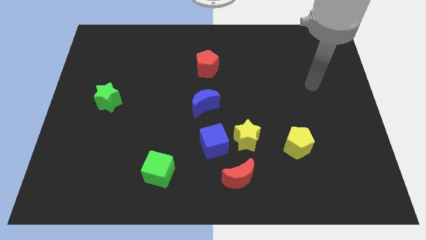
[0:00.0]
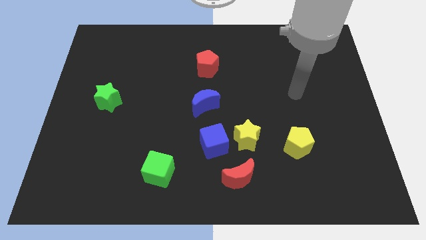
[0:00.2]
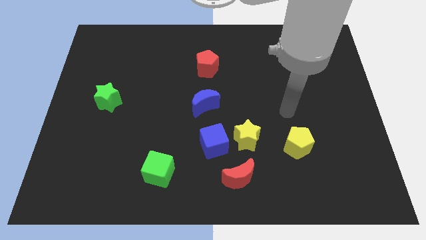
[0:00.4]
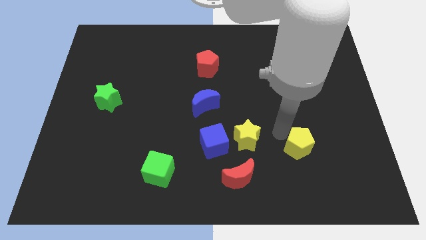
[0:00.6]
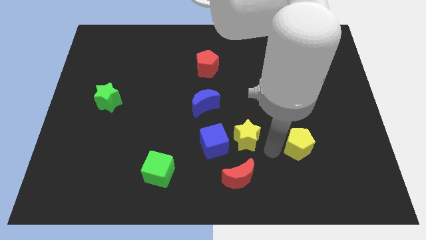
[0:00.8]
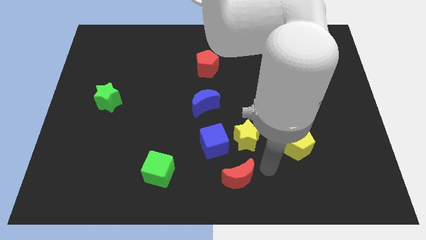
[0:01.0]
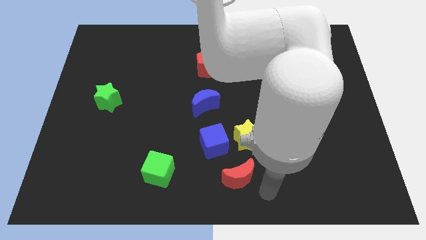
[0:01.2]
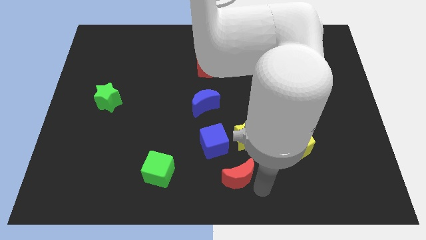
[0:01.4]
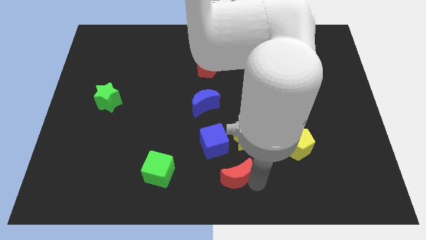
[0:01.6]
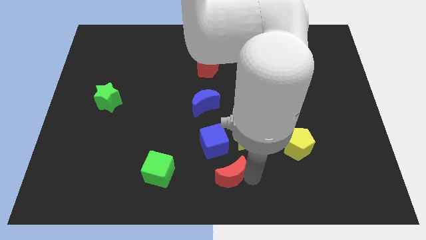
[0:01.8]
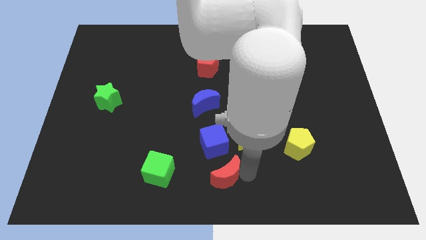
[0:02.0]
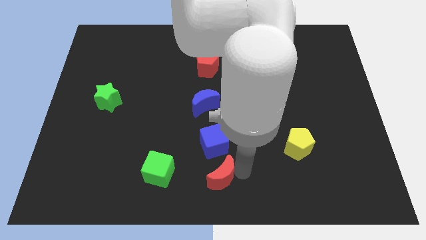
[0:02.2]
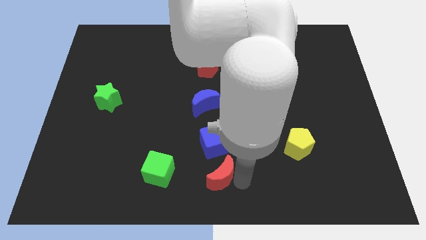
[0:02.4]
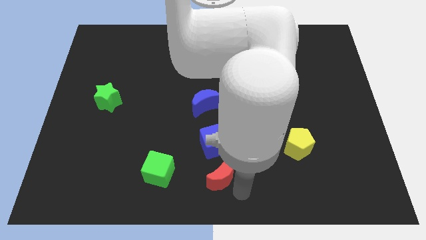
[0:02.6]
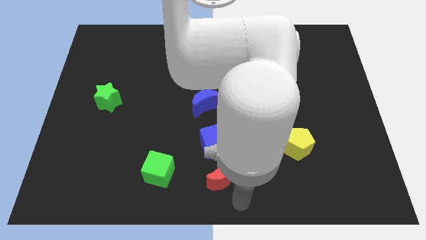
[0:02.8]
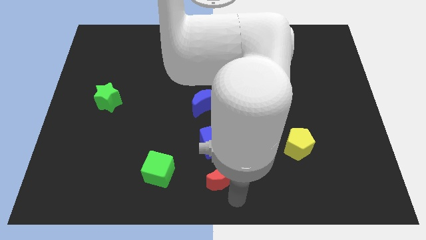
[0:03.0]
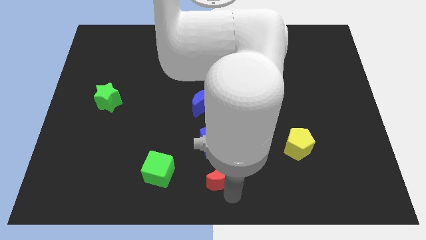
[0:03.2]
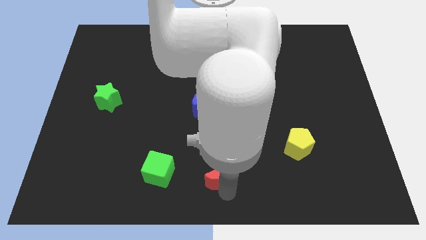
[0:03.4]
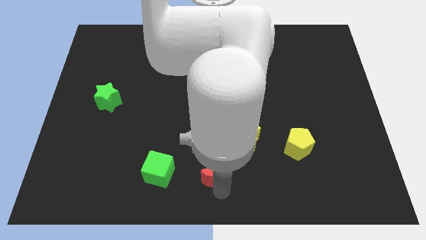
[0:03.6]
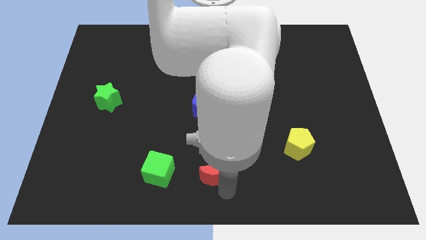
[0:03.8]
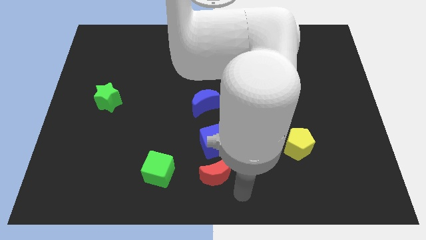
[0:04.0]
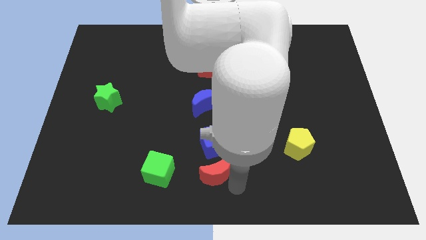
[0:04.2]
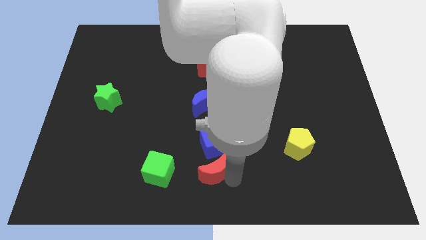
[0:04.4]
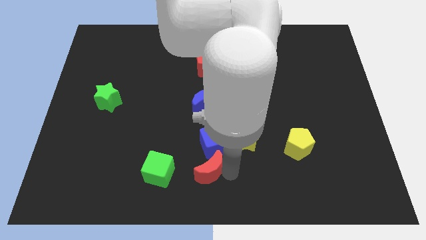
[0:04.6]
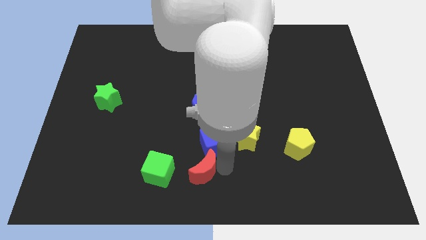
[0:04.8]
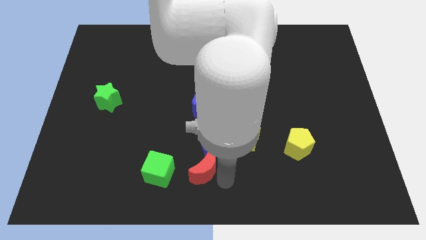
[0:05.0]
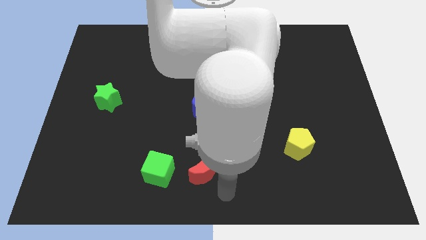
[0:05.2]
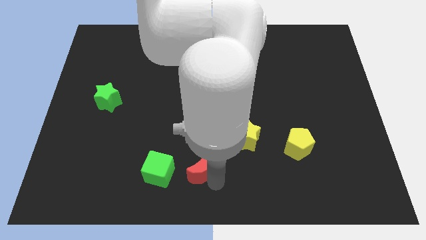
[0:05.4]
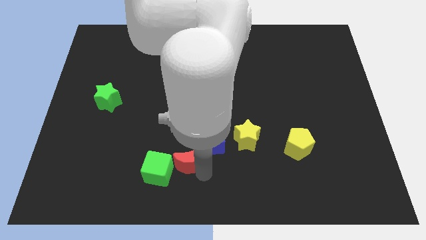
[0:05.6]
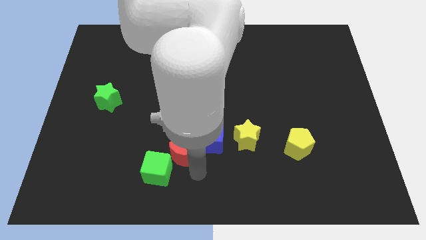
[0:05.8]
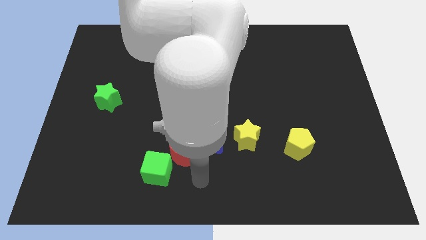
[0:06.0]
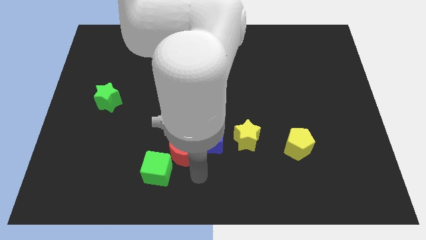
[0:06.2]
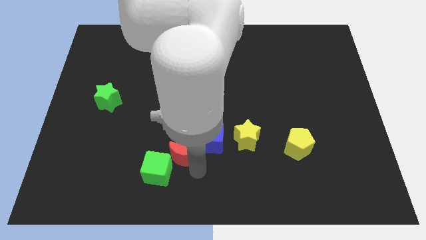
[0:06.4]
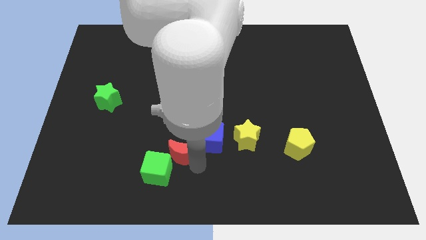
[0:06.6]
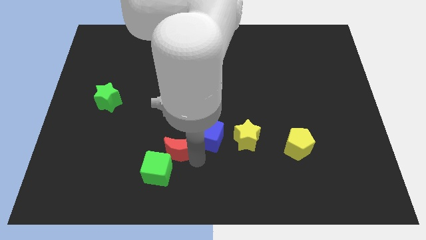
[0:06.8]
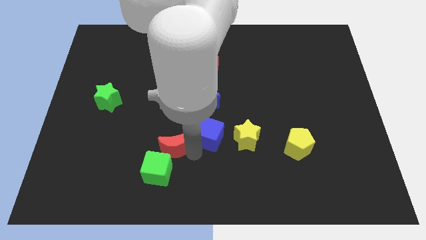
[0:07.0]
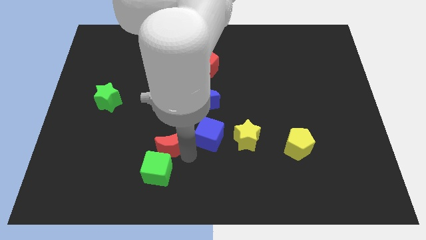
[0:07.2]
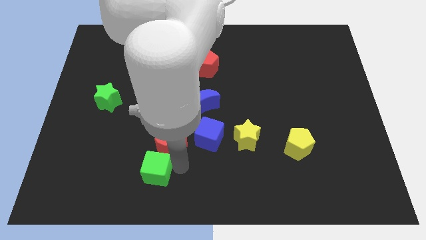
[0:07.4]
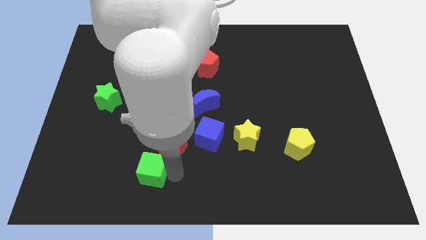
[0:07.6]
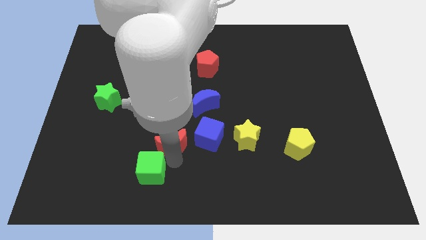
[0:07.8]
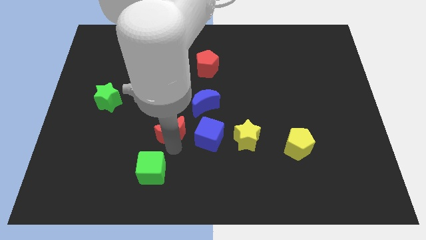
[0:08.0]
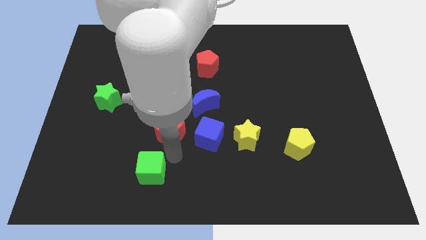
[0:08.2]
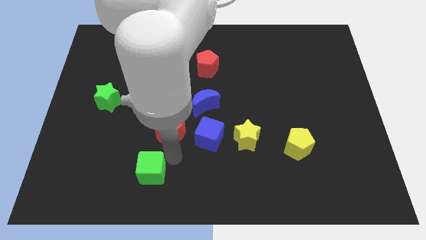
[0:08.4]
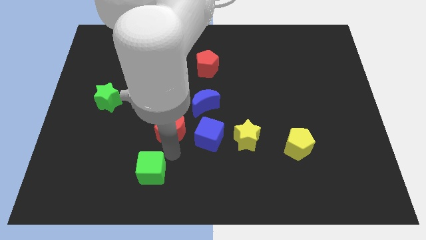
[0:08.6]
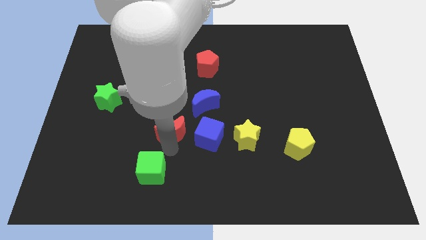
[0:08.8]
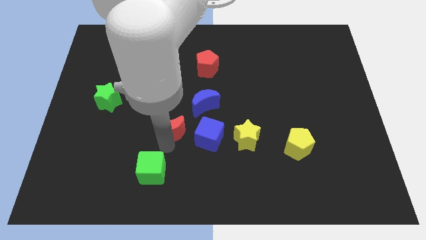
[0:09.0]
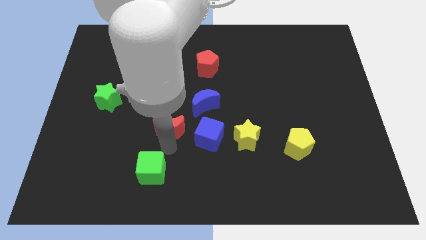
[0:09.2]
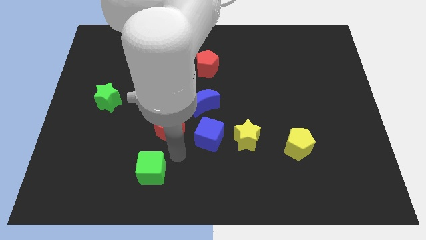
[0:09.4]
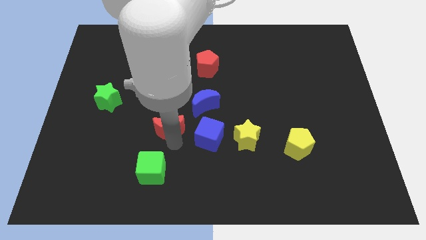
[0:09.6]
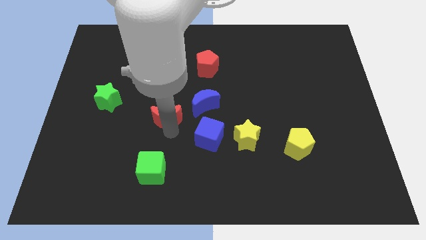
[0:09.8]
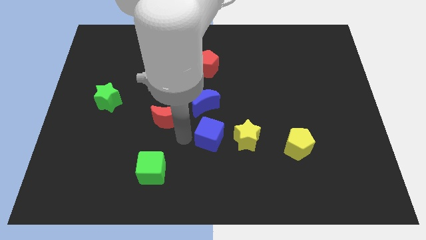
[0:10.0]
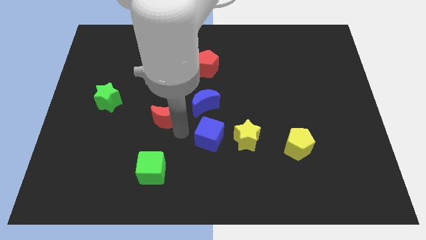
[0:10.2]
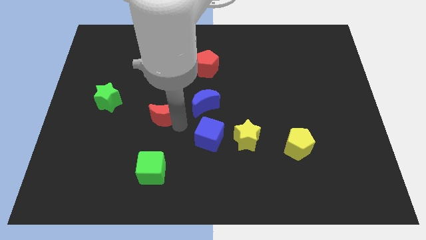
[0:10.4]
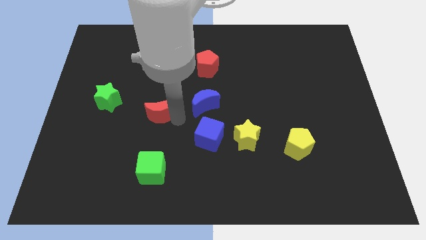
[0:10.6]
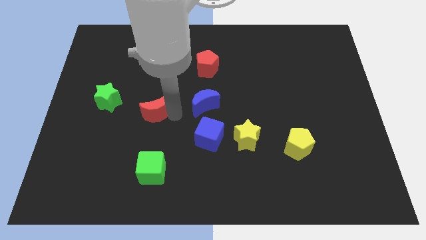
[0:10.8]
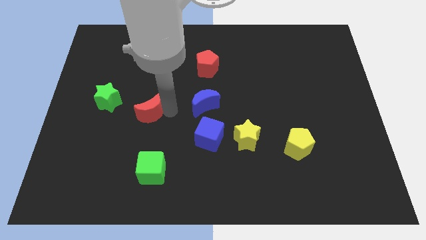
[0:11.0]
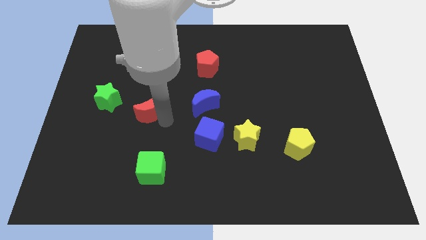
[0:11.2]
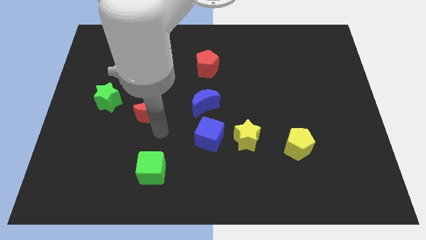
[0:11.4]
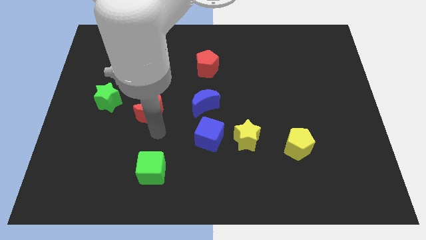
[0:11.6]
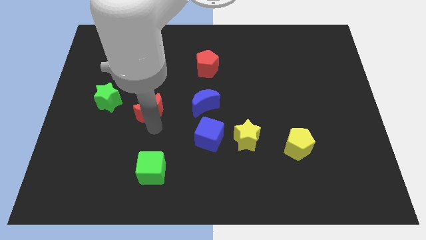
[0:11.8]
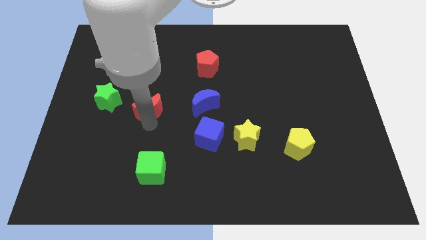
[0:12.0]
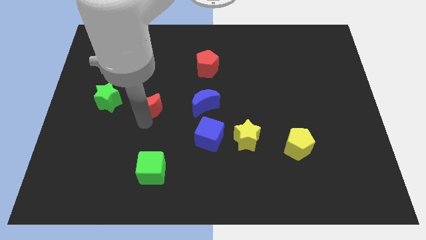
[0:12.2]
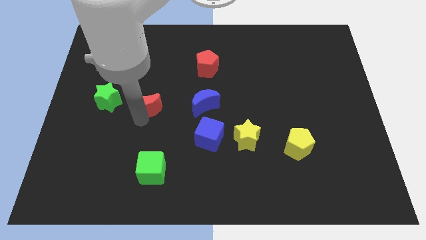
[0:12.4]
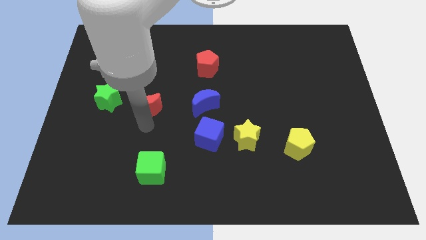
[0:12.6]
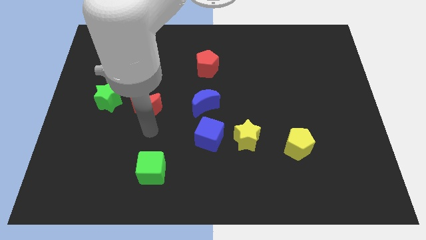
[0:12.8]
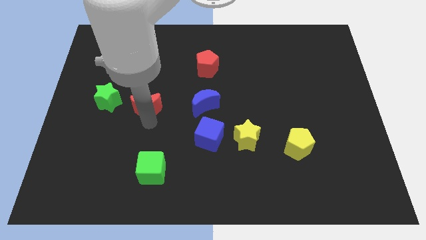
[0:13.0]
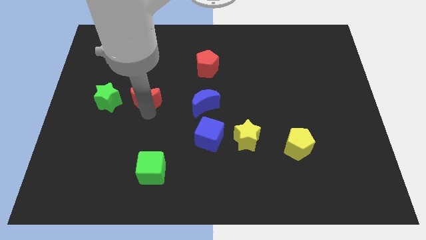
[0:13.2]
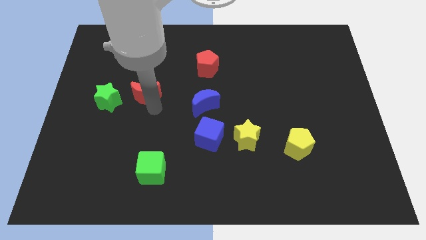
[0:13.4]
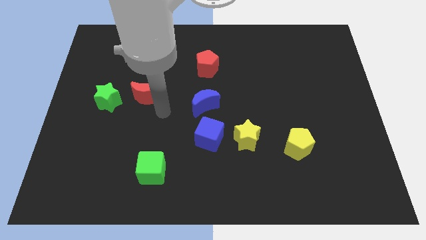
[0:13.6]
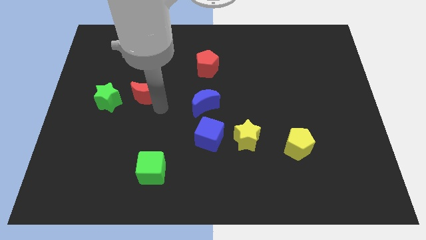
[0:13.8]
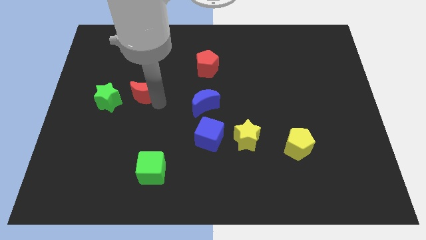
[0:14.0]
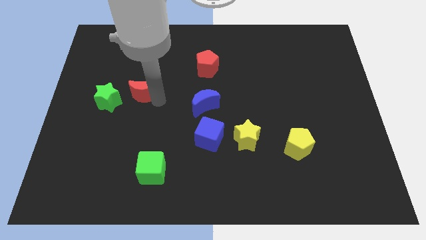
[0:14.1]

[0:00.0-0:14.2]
move the red moon to the top right side of the green star

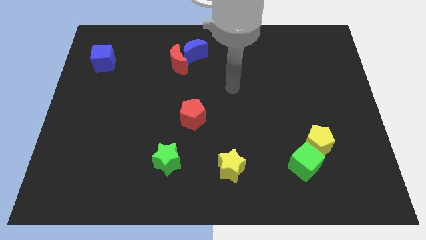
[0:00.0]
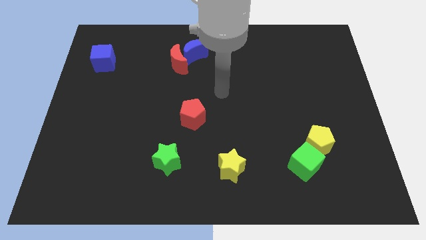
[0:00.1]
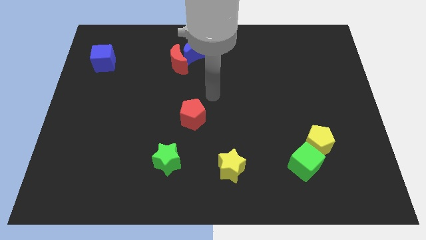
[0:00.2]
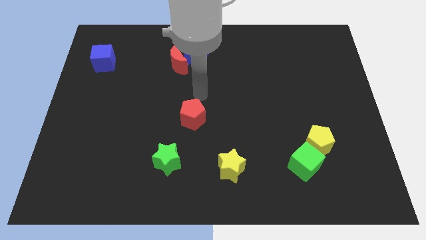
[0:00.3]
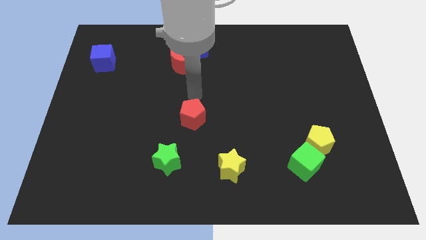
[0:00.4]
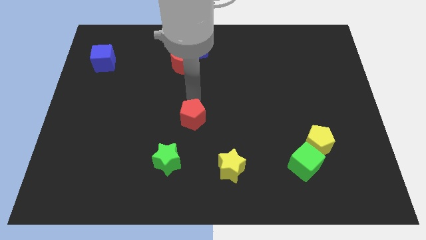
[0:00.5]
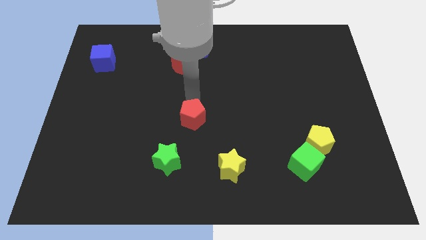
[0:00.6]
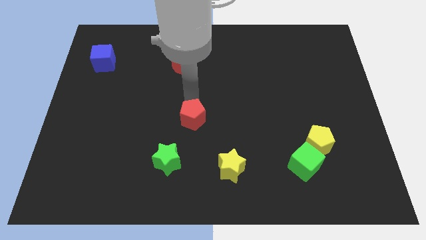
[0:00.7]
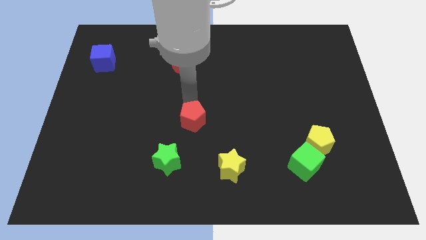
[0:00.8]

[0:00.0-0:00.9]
put the red pentagon to the top right side of the green star
